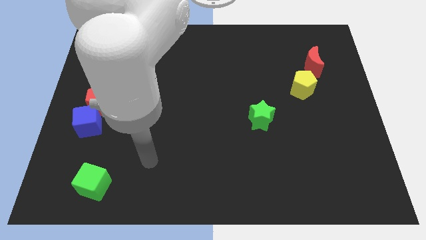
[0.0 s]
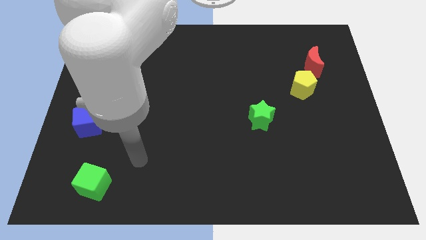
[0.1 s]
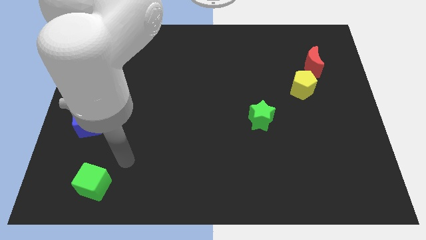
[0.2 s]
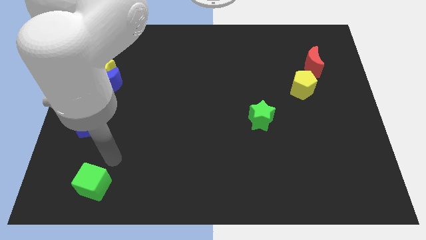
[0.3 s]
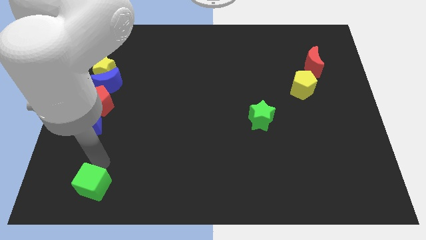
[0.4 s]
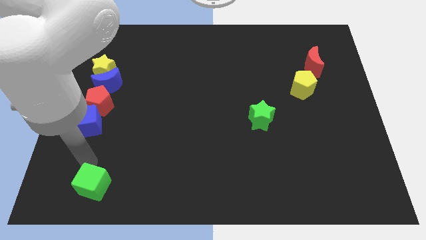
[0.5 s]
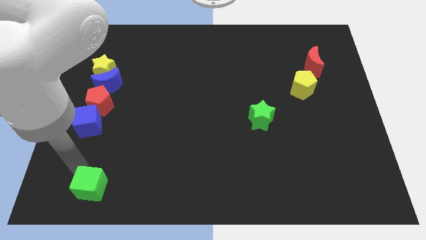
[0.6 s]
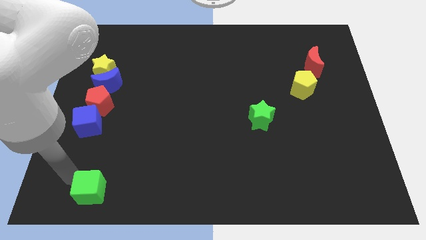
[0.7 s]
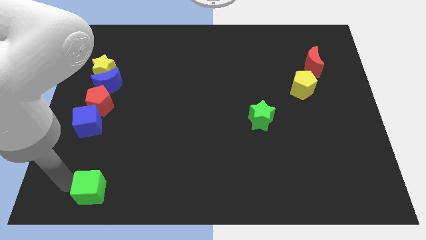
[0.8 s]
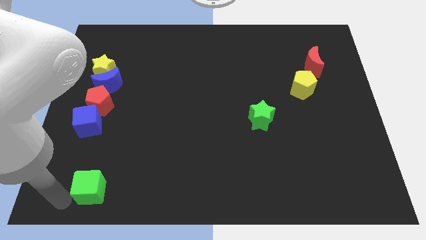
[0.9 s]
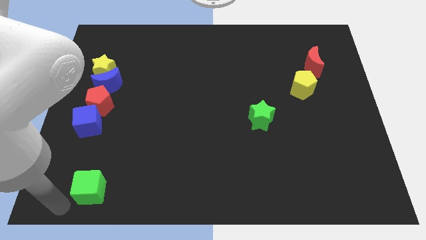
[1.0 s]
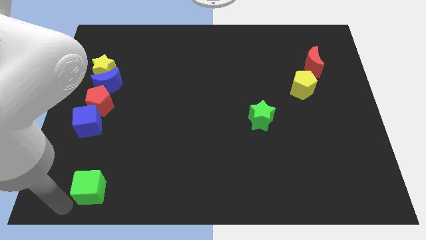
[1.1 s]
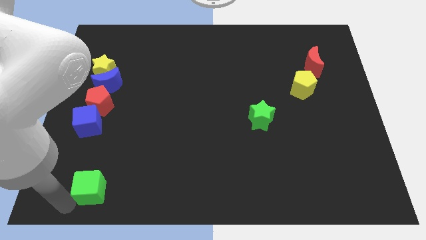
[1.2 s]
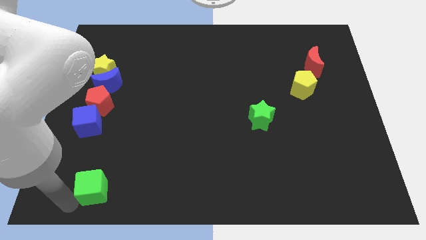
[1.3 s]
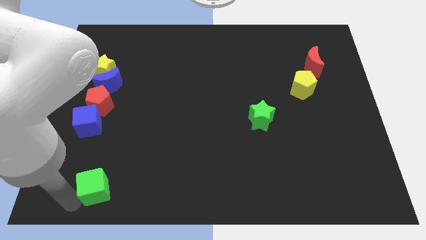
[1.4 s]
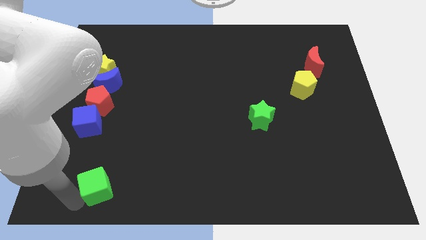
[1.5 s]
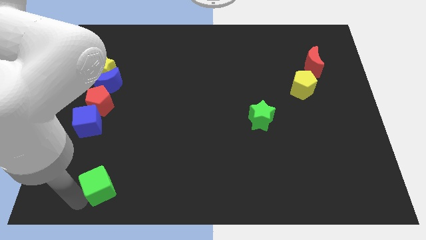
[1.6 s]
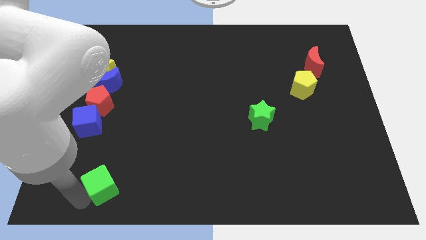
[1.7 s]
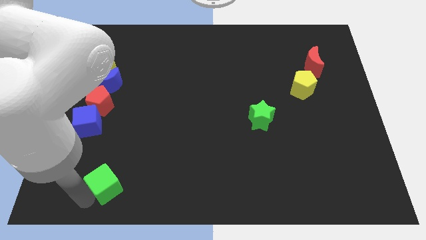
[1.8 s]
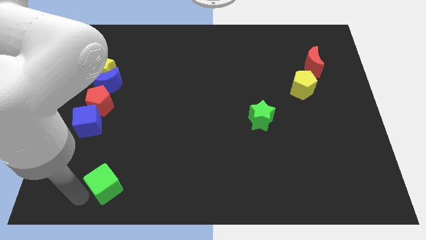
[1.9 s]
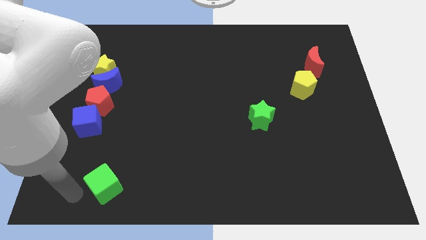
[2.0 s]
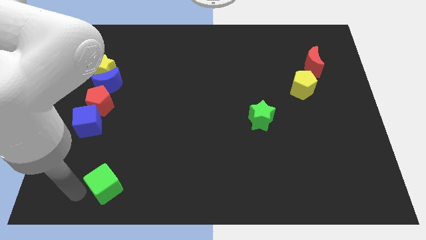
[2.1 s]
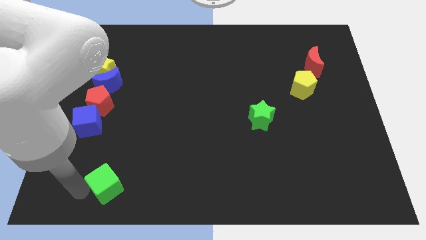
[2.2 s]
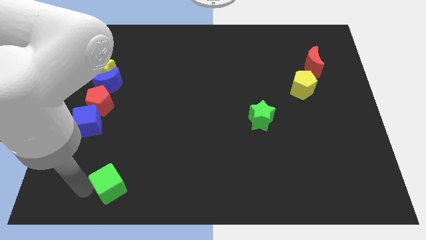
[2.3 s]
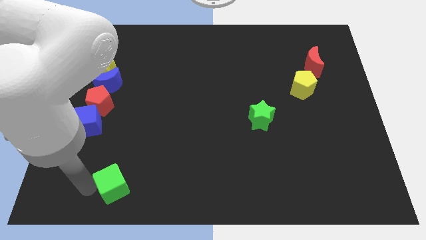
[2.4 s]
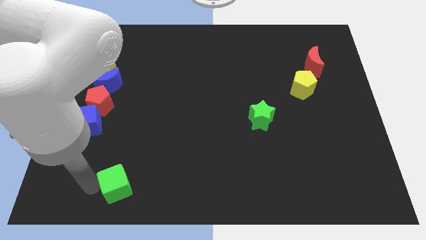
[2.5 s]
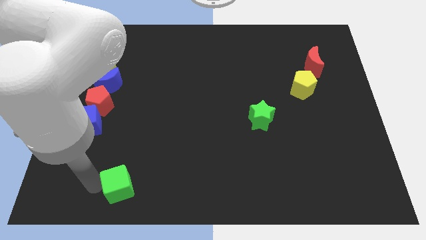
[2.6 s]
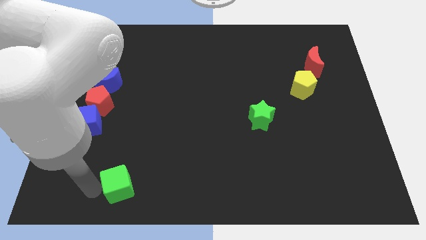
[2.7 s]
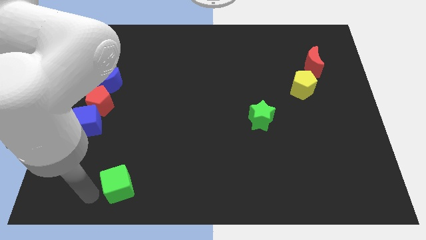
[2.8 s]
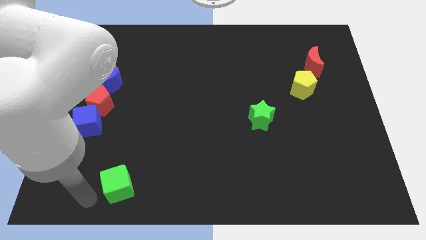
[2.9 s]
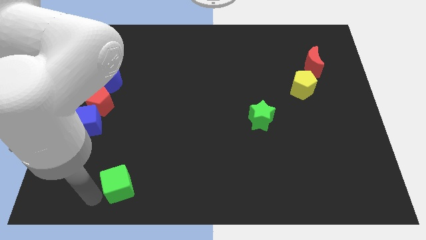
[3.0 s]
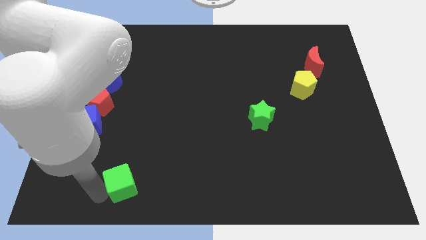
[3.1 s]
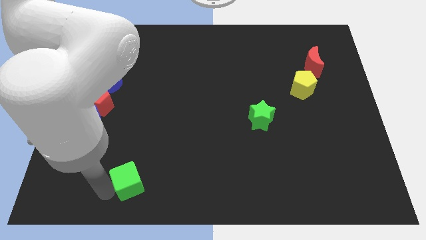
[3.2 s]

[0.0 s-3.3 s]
slide the green cube right a little bit

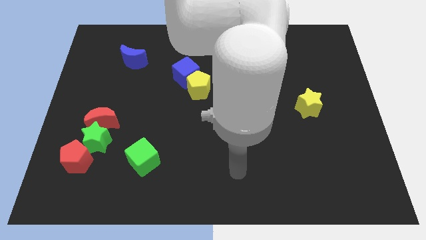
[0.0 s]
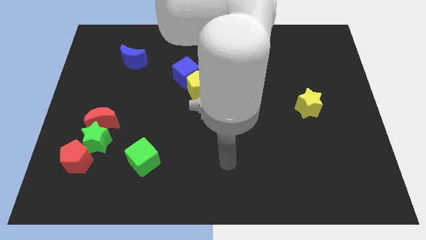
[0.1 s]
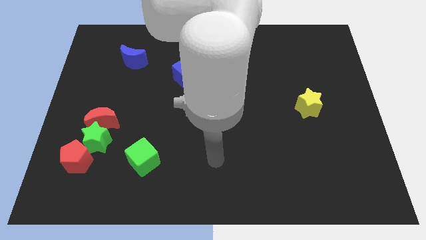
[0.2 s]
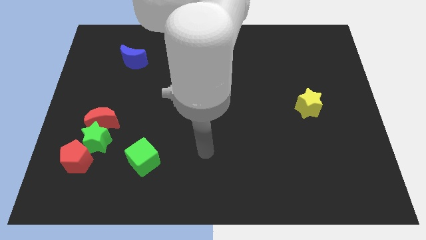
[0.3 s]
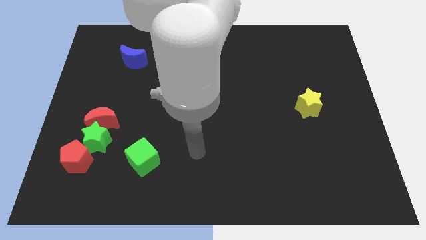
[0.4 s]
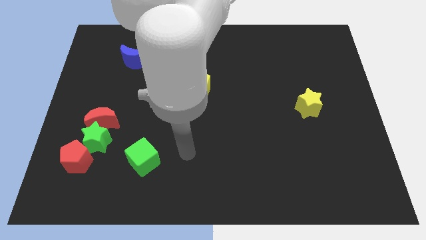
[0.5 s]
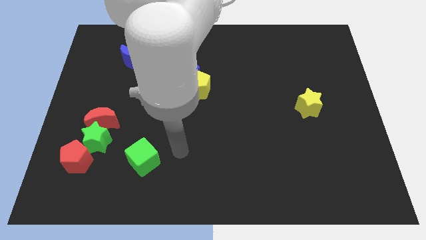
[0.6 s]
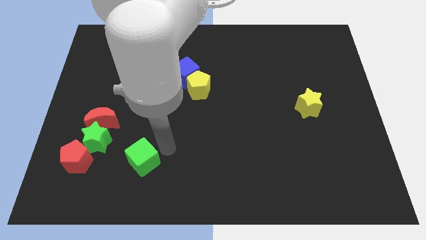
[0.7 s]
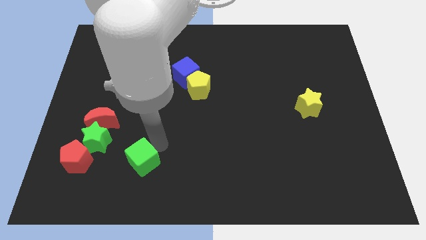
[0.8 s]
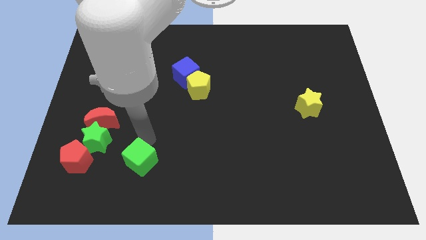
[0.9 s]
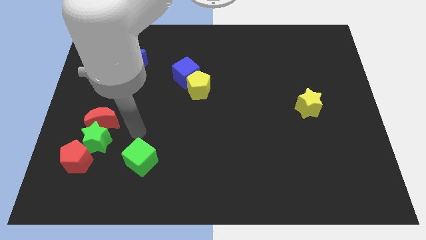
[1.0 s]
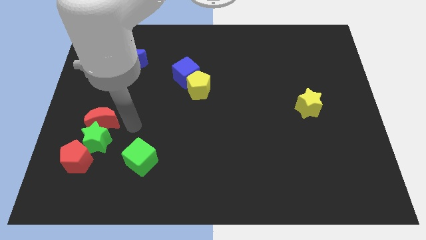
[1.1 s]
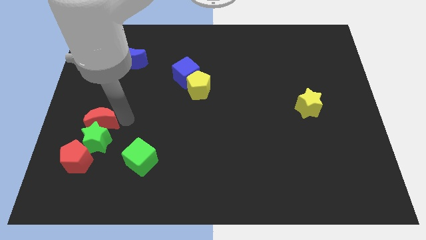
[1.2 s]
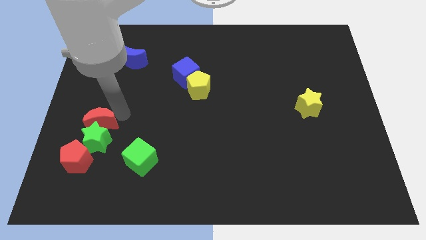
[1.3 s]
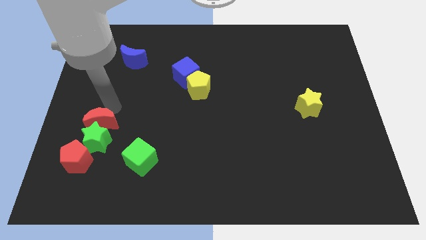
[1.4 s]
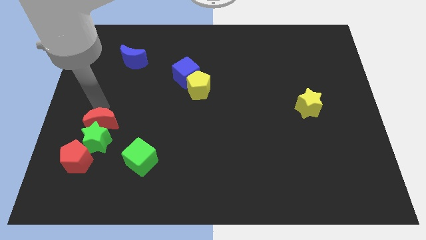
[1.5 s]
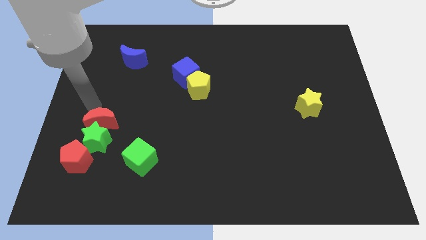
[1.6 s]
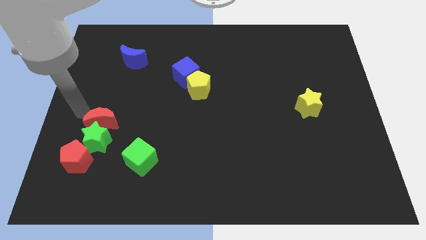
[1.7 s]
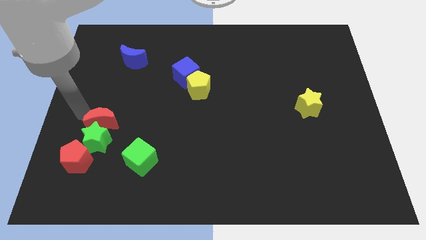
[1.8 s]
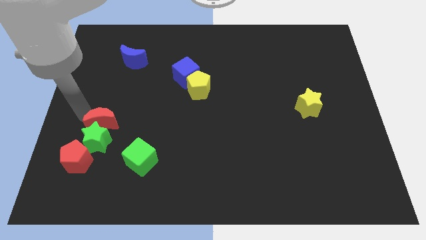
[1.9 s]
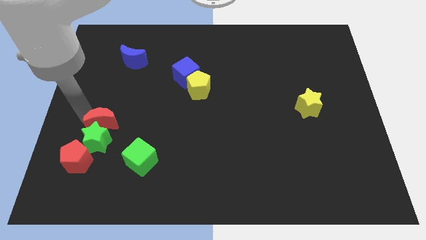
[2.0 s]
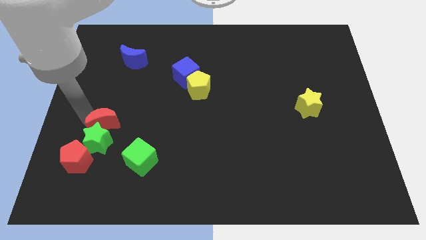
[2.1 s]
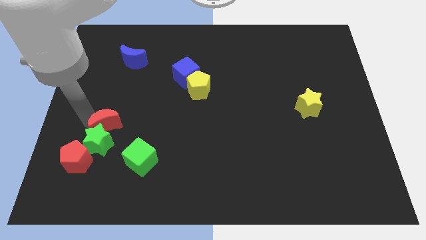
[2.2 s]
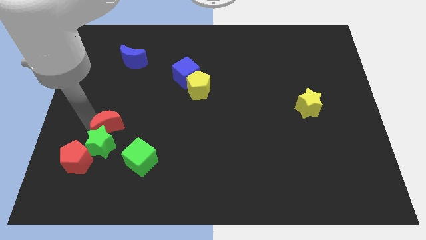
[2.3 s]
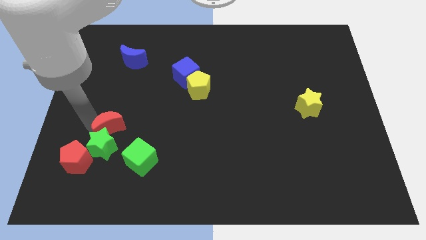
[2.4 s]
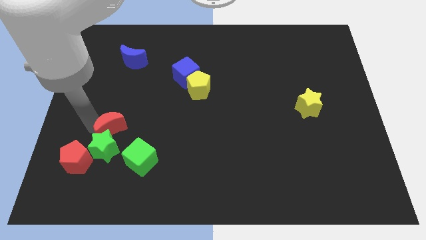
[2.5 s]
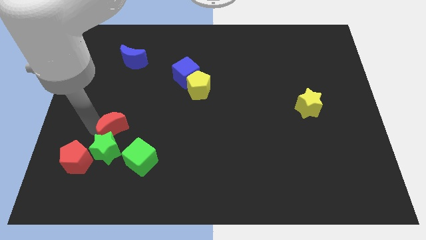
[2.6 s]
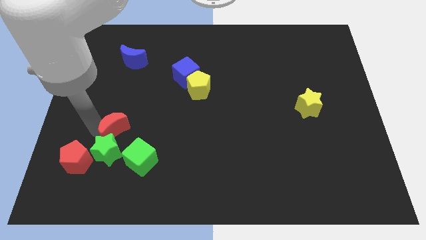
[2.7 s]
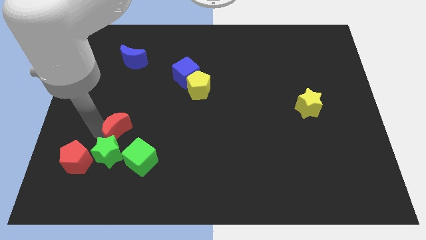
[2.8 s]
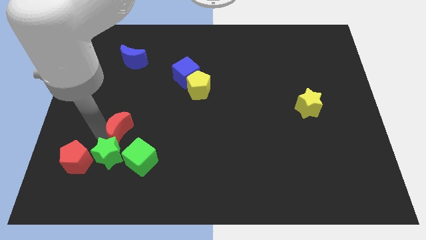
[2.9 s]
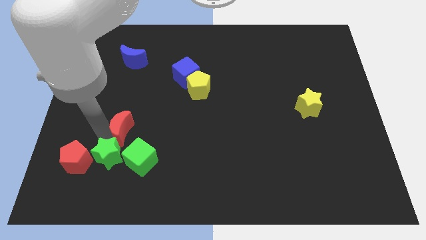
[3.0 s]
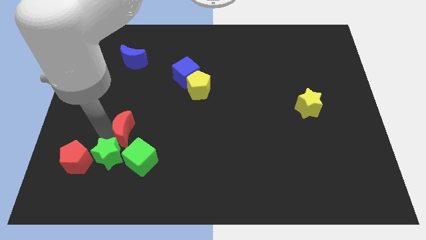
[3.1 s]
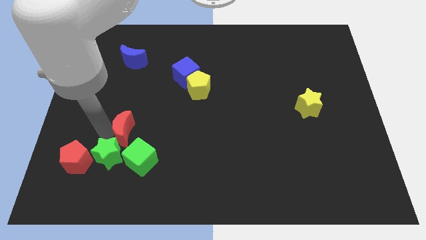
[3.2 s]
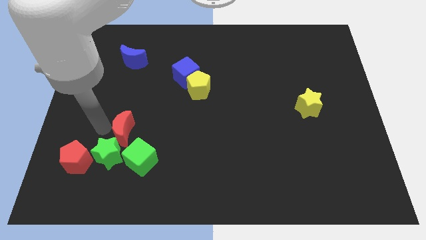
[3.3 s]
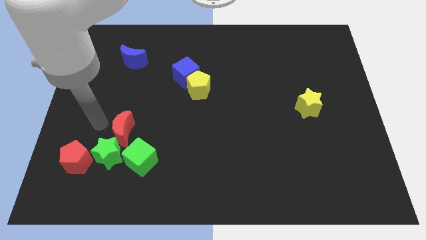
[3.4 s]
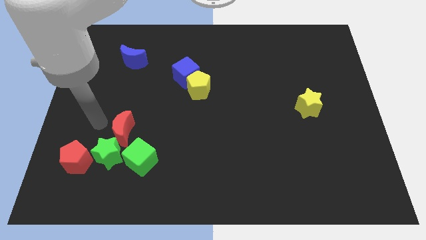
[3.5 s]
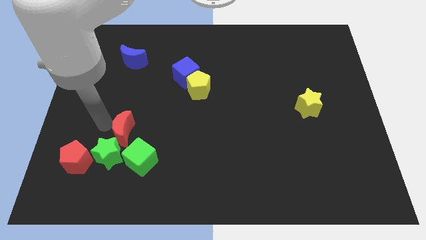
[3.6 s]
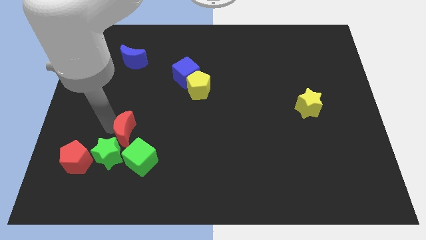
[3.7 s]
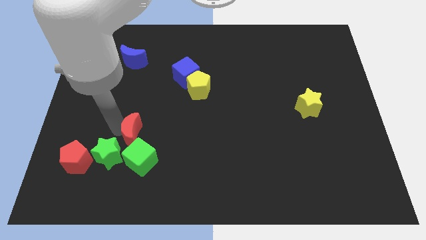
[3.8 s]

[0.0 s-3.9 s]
slide the red moon slightly downwards and to the right diagonally

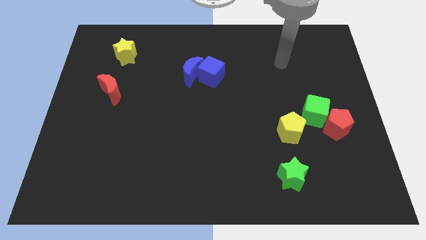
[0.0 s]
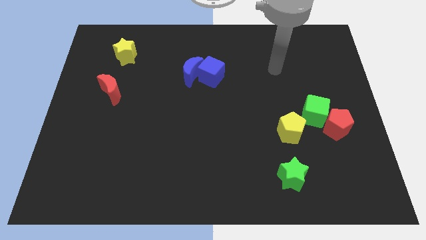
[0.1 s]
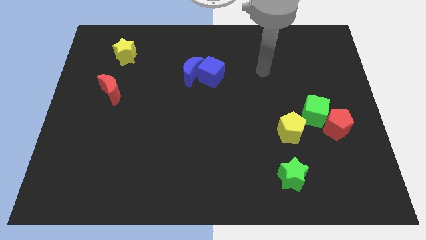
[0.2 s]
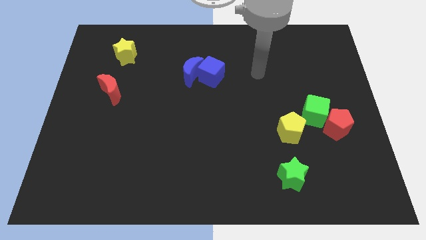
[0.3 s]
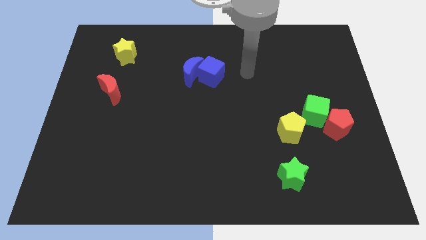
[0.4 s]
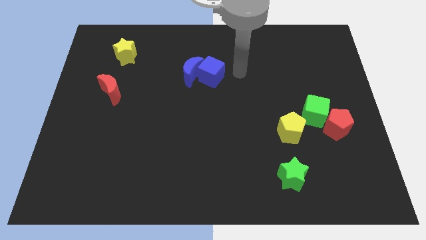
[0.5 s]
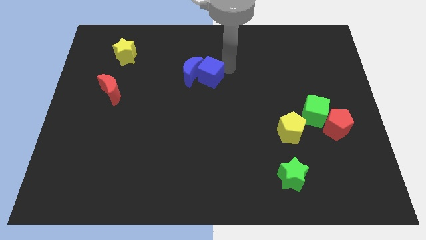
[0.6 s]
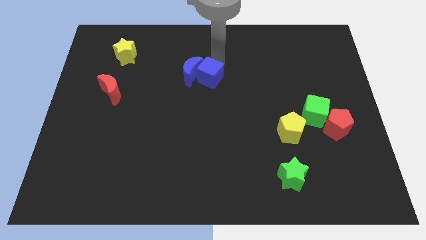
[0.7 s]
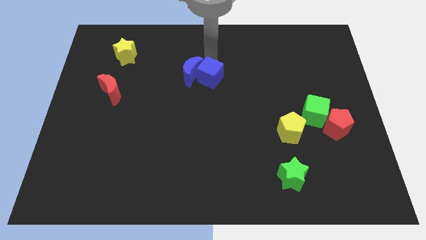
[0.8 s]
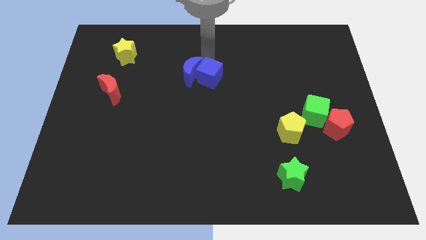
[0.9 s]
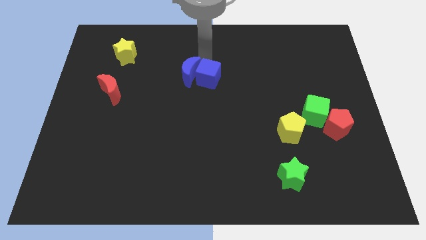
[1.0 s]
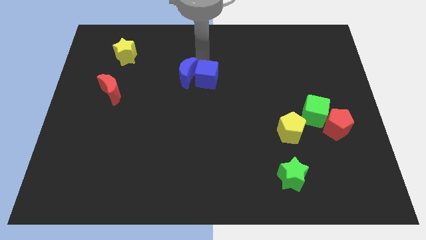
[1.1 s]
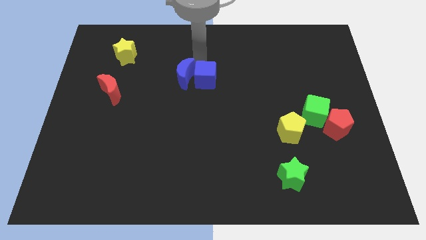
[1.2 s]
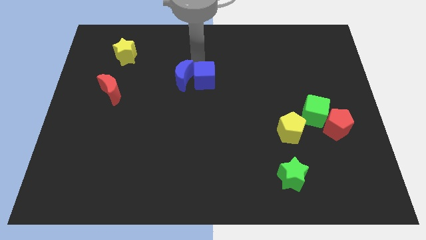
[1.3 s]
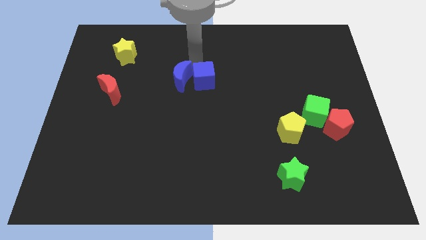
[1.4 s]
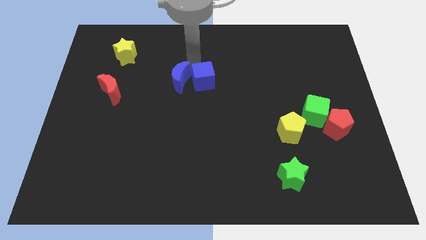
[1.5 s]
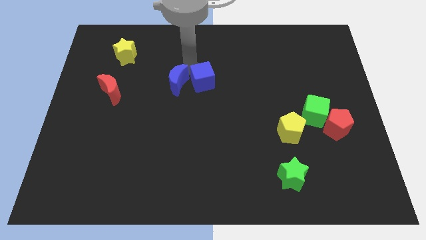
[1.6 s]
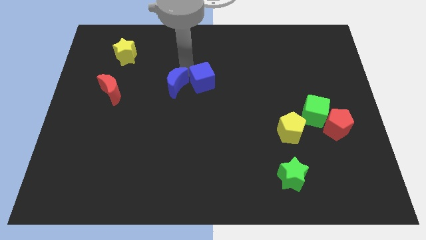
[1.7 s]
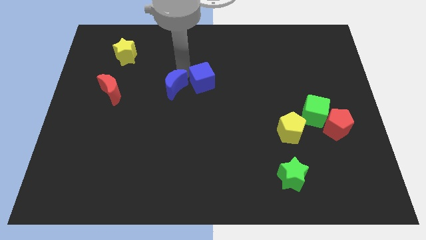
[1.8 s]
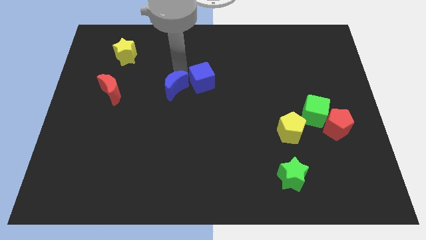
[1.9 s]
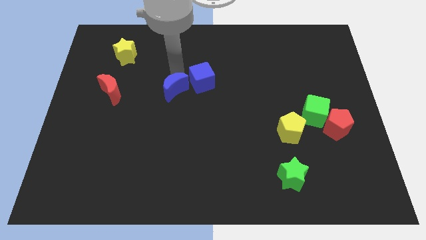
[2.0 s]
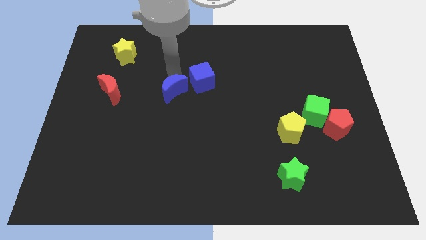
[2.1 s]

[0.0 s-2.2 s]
move the blue moon a bit down and then left
